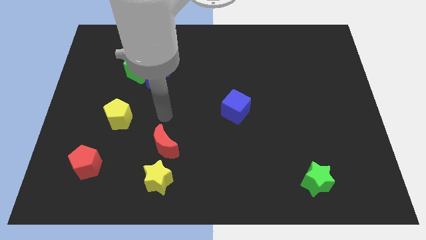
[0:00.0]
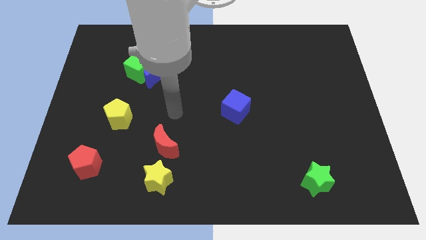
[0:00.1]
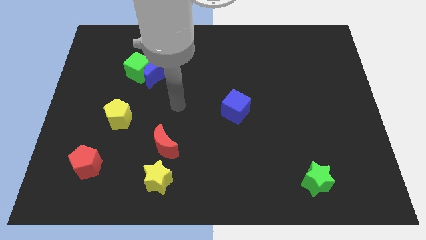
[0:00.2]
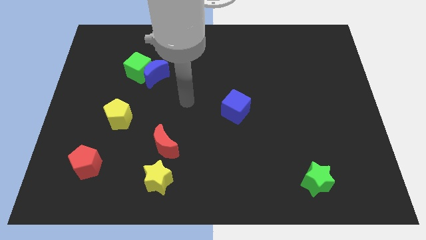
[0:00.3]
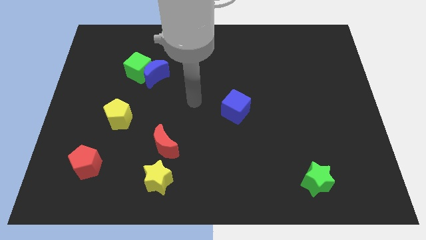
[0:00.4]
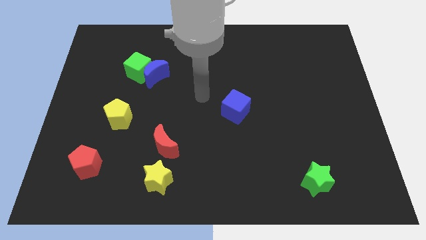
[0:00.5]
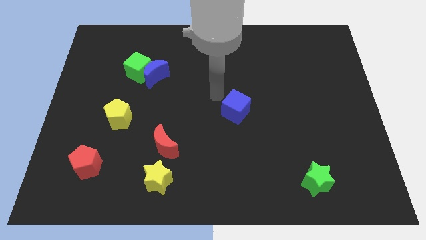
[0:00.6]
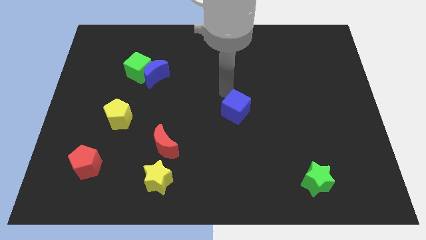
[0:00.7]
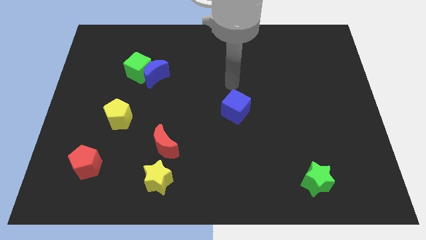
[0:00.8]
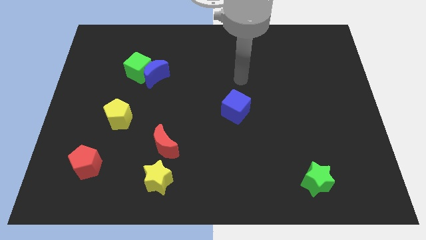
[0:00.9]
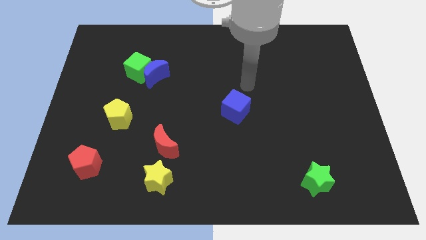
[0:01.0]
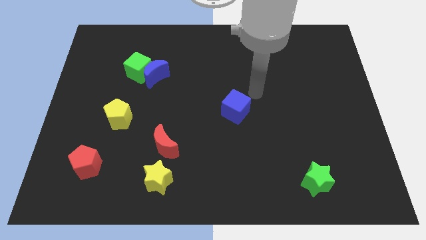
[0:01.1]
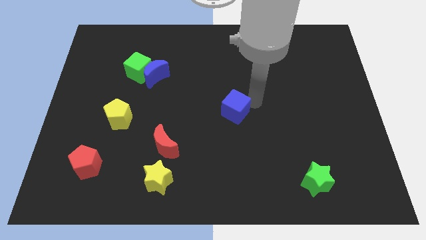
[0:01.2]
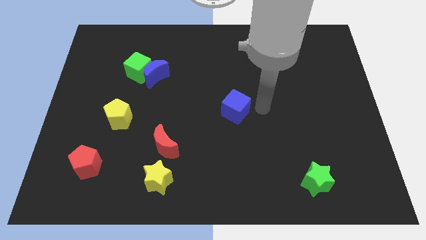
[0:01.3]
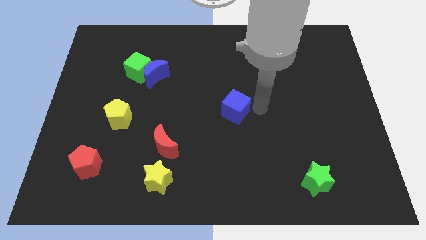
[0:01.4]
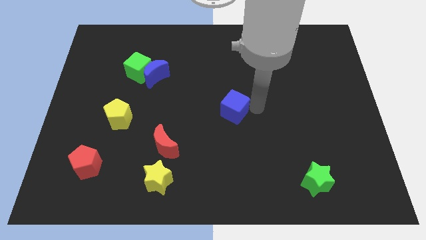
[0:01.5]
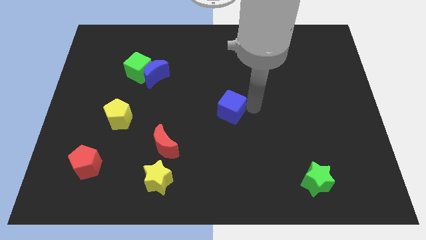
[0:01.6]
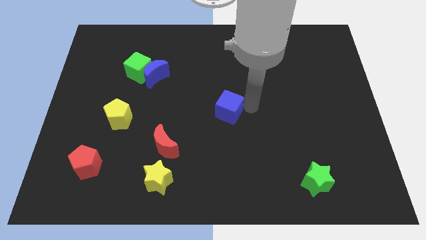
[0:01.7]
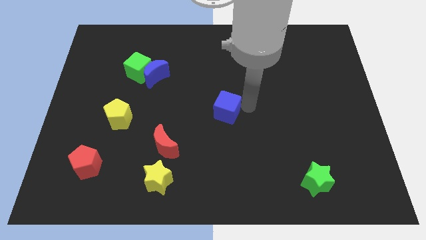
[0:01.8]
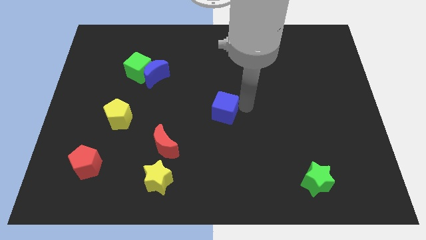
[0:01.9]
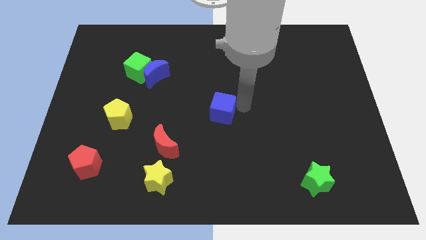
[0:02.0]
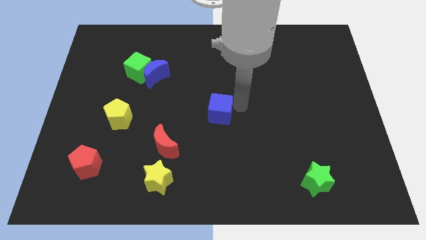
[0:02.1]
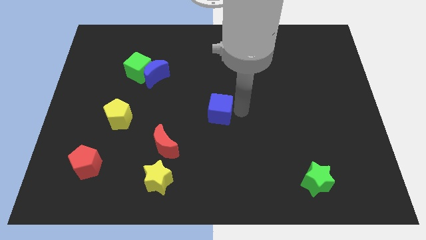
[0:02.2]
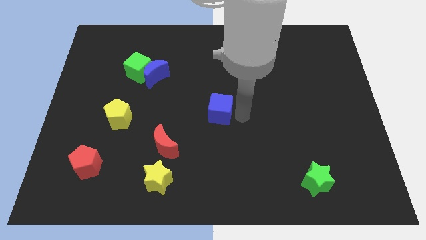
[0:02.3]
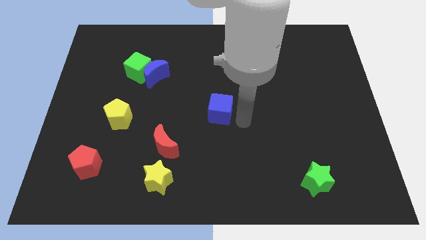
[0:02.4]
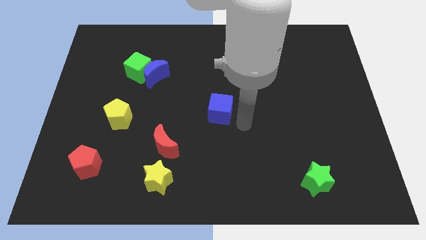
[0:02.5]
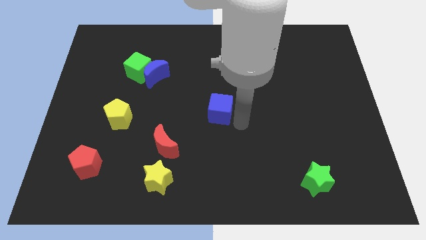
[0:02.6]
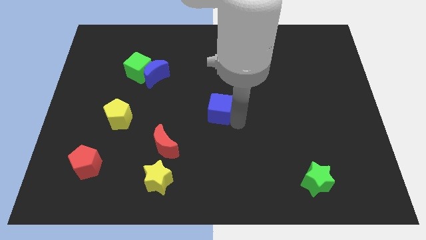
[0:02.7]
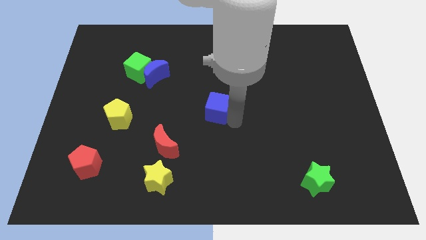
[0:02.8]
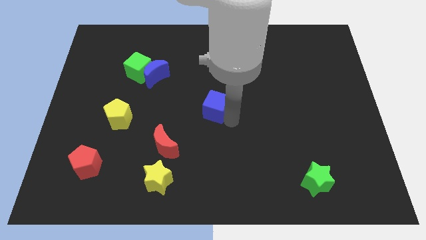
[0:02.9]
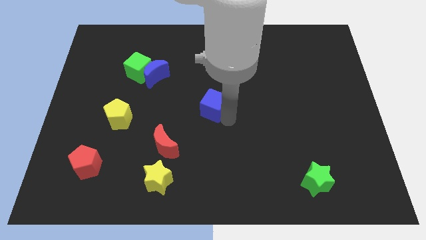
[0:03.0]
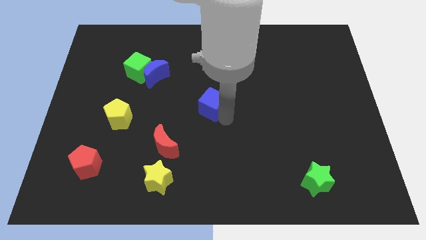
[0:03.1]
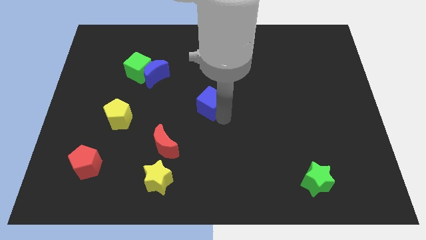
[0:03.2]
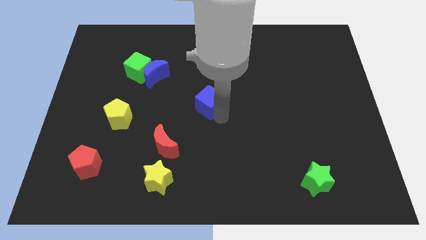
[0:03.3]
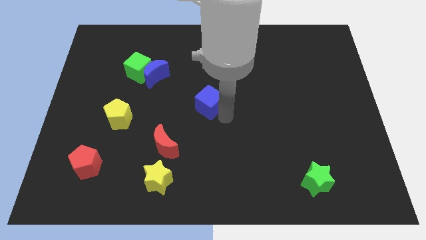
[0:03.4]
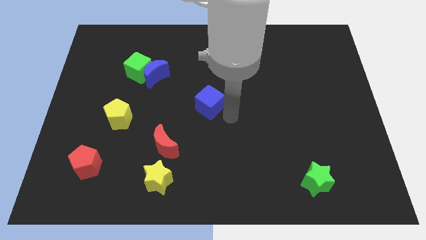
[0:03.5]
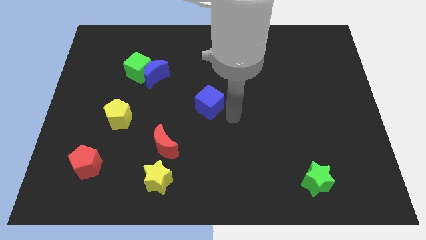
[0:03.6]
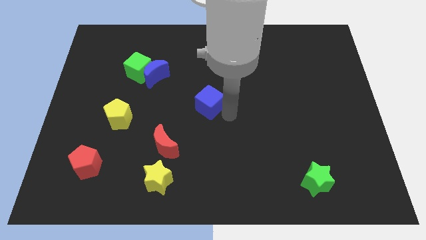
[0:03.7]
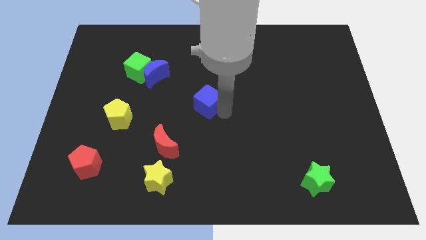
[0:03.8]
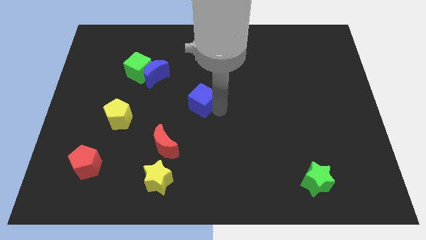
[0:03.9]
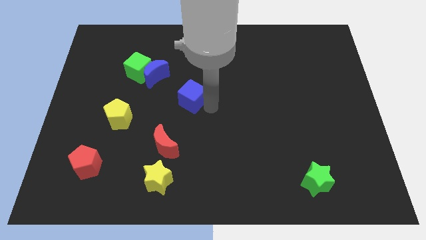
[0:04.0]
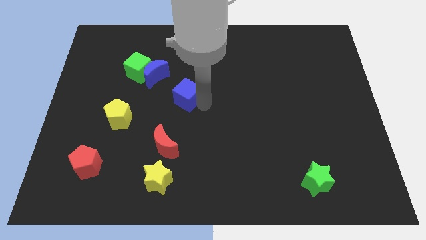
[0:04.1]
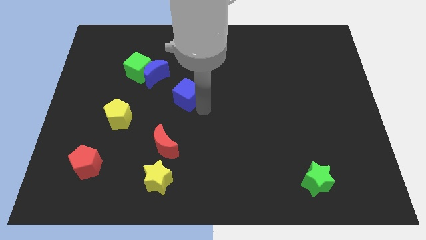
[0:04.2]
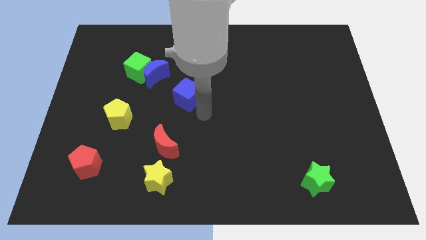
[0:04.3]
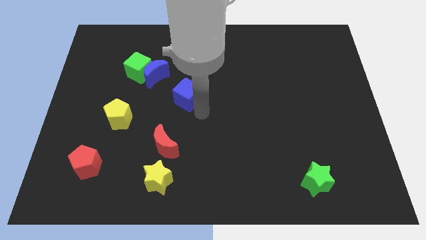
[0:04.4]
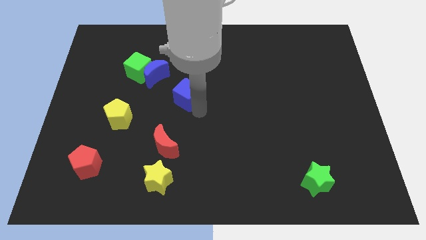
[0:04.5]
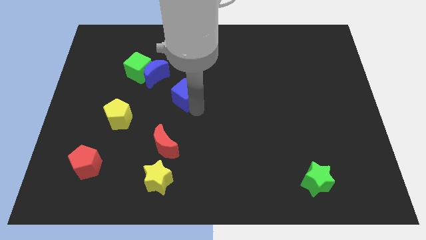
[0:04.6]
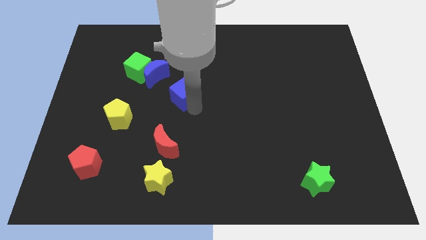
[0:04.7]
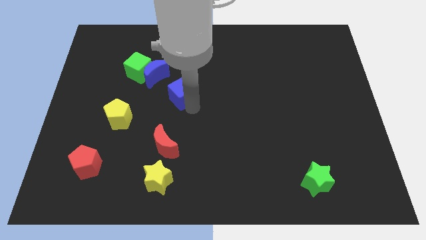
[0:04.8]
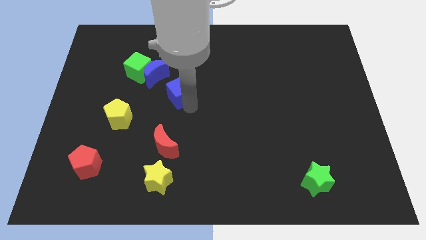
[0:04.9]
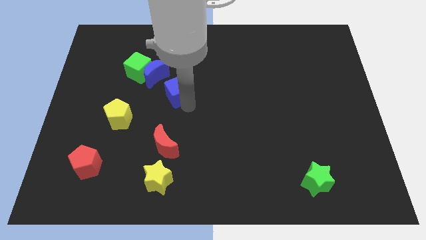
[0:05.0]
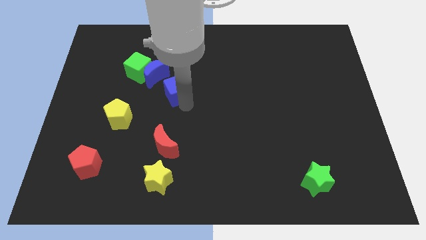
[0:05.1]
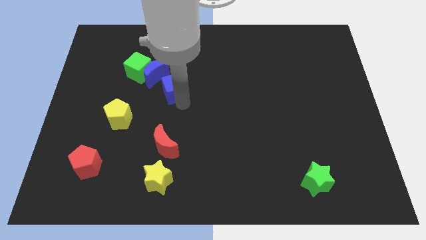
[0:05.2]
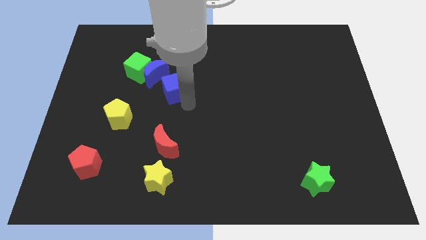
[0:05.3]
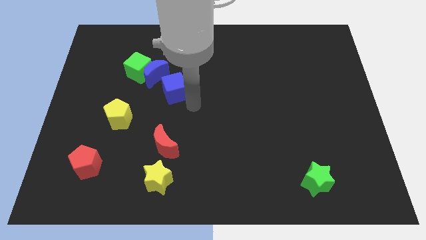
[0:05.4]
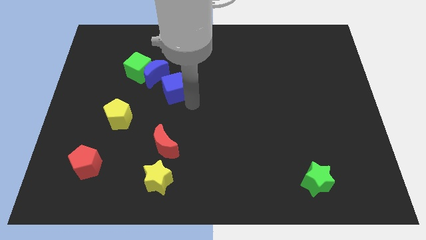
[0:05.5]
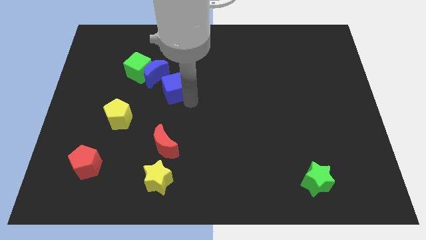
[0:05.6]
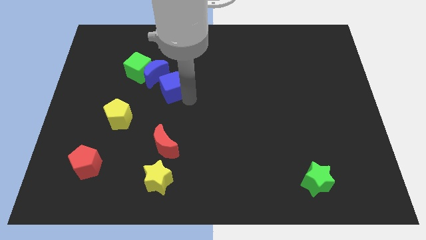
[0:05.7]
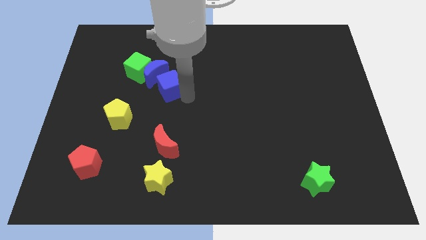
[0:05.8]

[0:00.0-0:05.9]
push the blue cube next to the blue moon

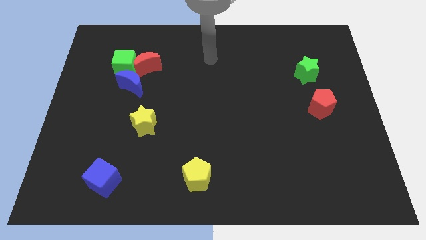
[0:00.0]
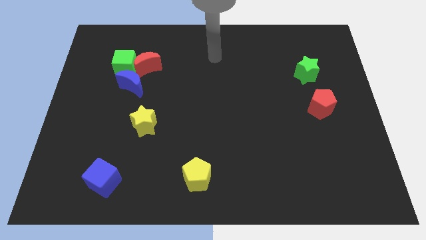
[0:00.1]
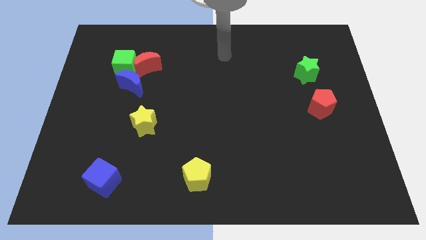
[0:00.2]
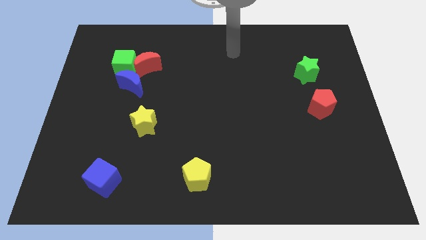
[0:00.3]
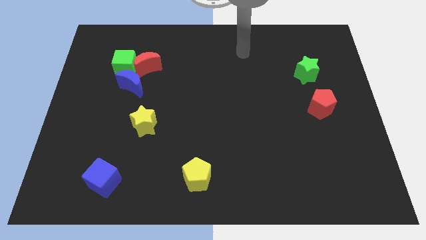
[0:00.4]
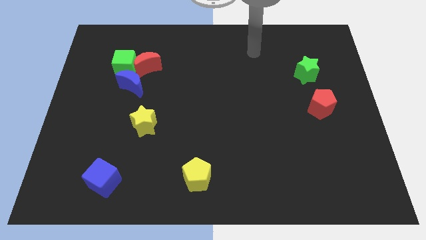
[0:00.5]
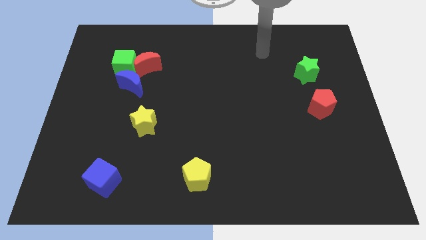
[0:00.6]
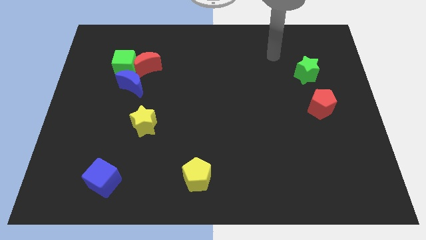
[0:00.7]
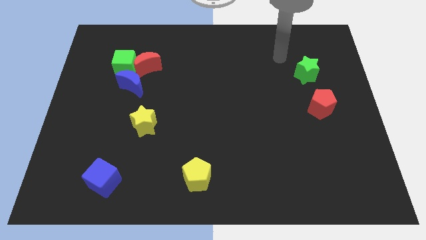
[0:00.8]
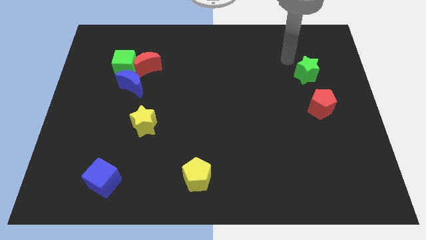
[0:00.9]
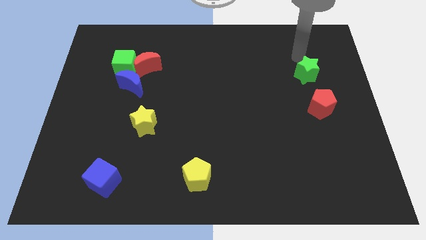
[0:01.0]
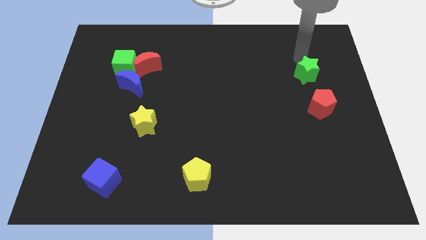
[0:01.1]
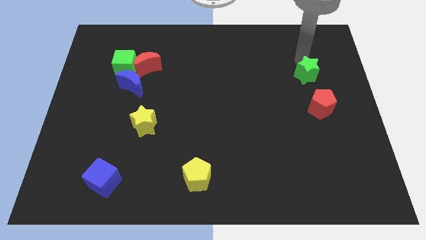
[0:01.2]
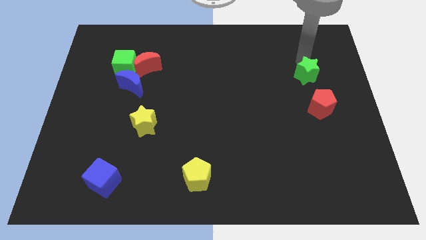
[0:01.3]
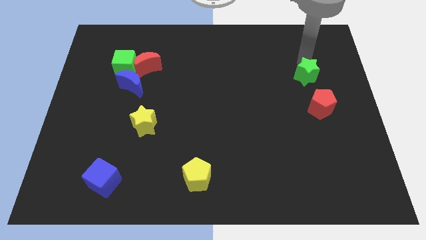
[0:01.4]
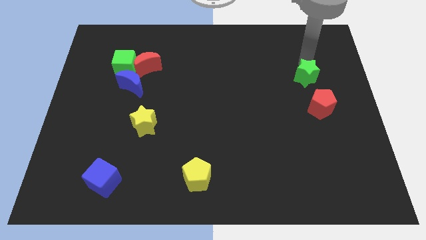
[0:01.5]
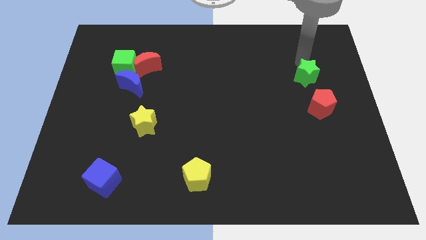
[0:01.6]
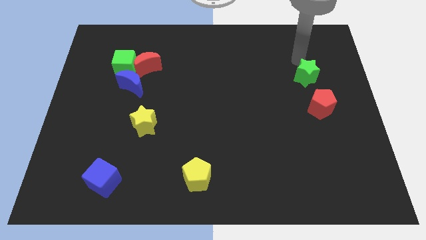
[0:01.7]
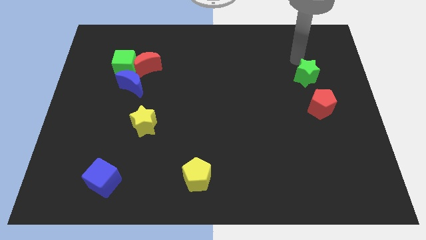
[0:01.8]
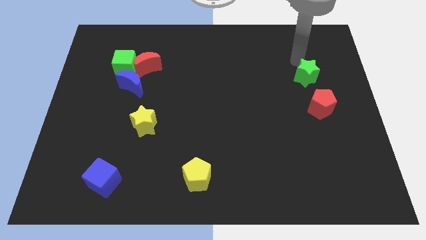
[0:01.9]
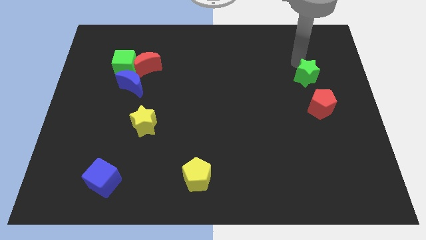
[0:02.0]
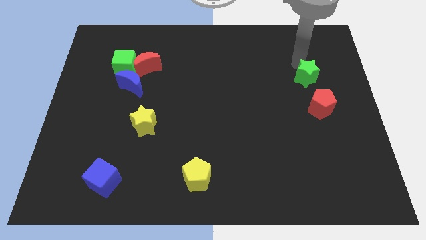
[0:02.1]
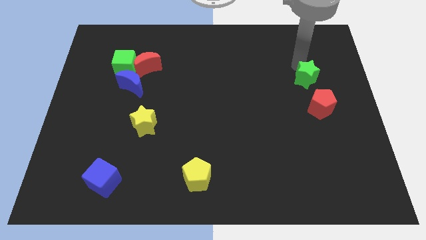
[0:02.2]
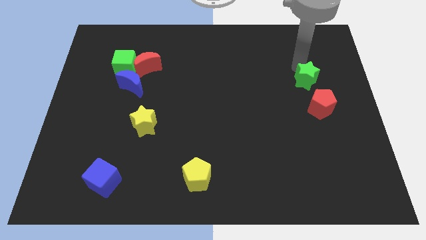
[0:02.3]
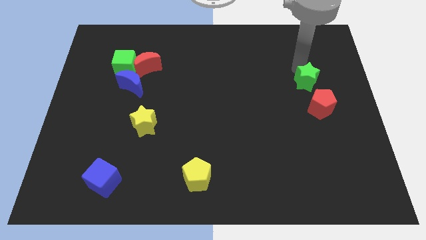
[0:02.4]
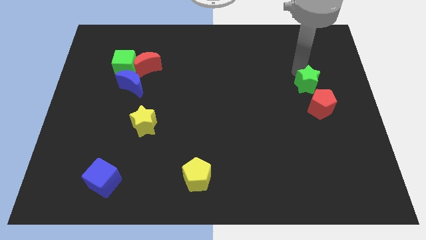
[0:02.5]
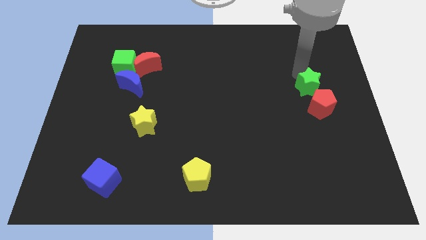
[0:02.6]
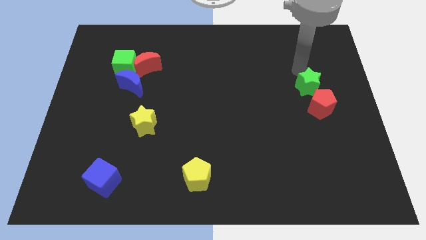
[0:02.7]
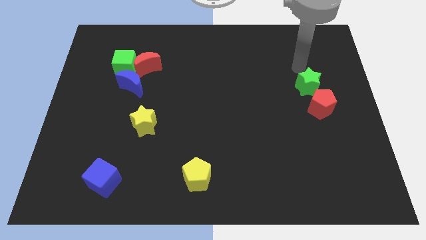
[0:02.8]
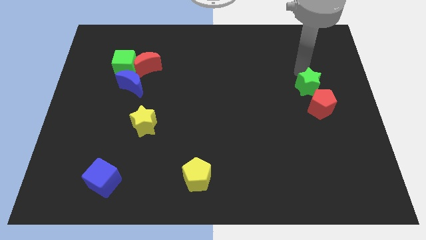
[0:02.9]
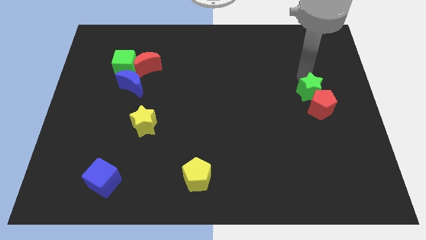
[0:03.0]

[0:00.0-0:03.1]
push the green star towards the red pentagon
